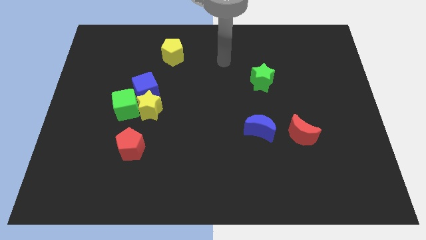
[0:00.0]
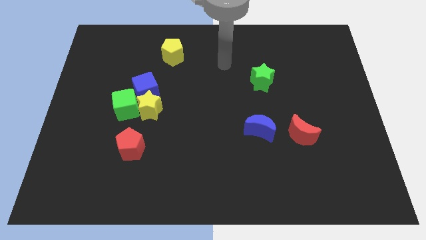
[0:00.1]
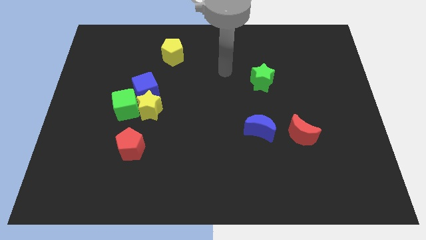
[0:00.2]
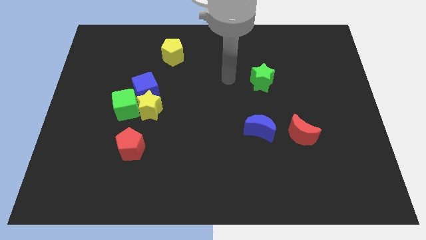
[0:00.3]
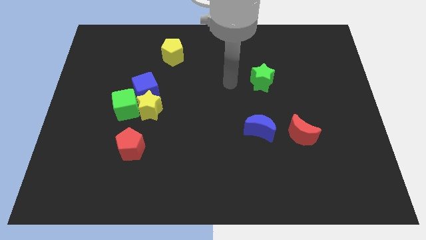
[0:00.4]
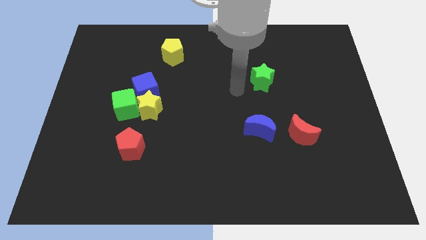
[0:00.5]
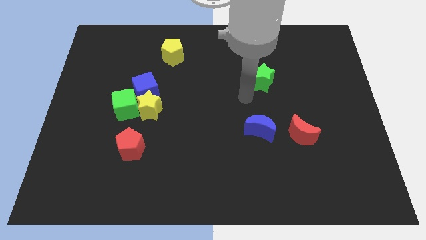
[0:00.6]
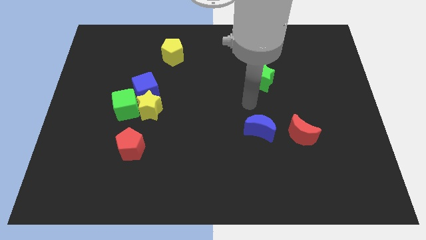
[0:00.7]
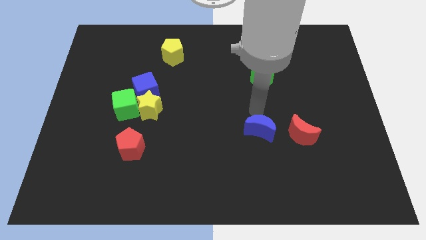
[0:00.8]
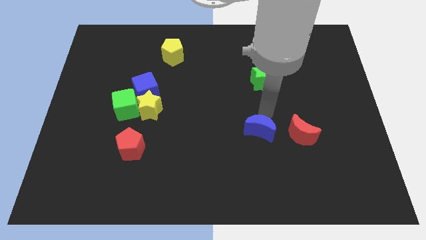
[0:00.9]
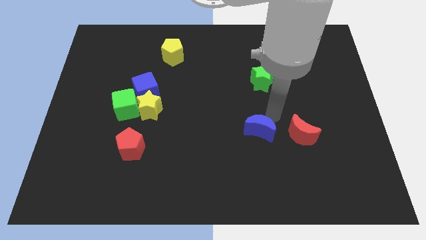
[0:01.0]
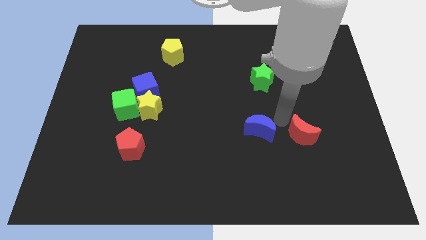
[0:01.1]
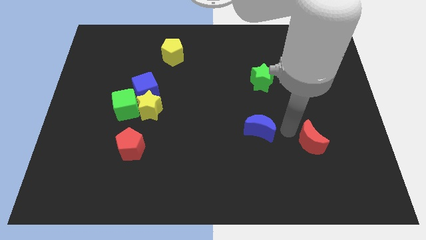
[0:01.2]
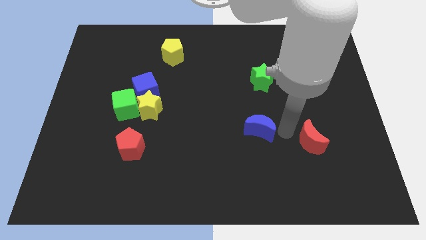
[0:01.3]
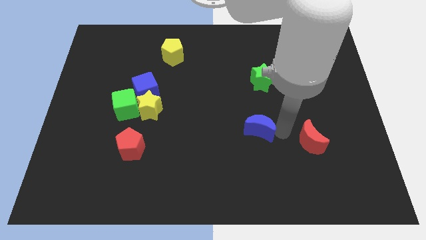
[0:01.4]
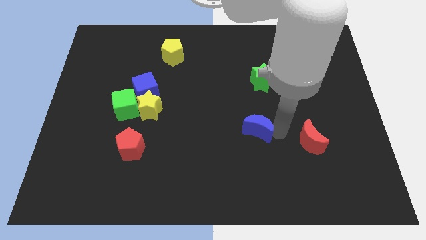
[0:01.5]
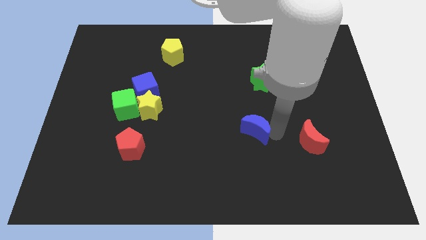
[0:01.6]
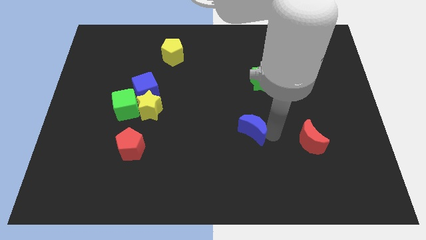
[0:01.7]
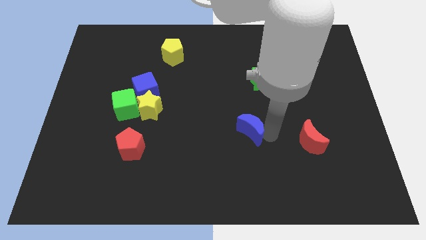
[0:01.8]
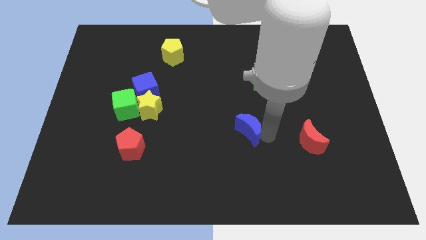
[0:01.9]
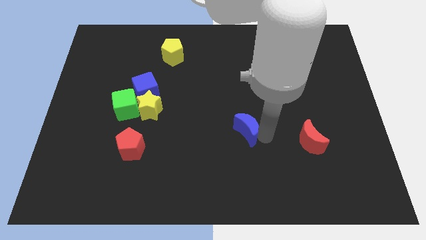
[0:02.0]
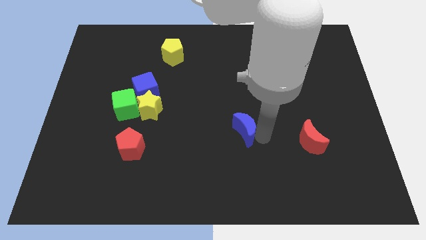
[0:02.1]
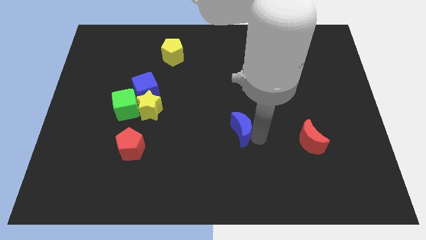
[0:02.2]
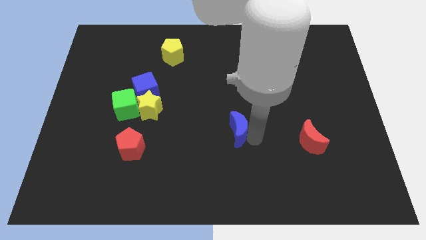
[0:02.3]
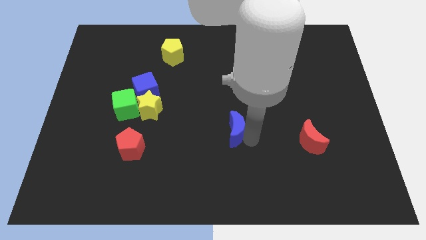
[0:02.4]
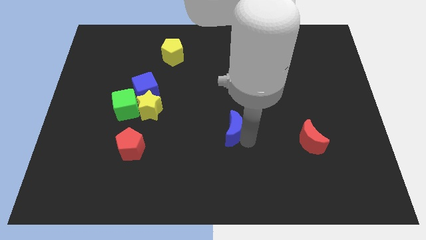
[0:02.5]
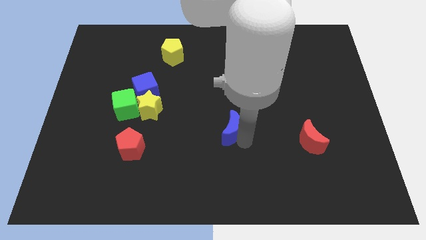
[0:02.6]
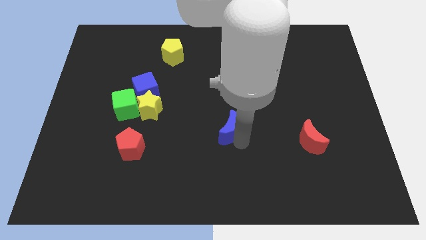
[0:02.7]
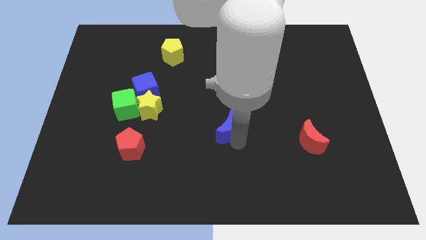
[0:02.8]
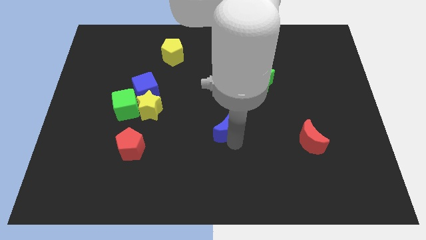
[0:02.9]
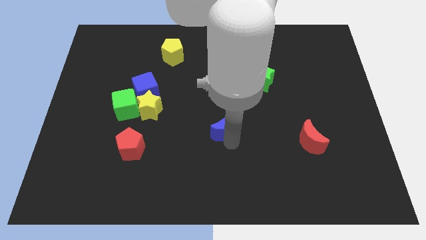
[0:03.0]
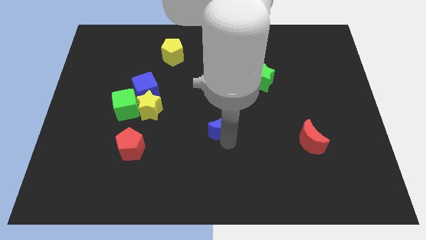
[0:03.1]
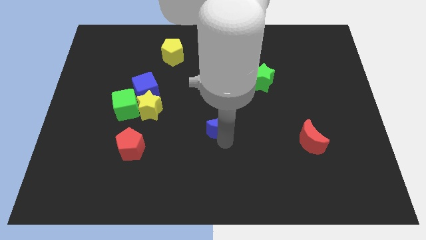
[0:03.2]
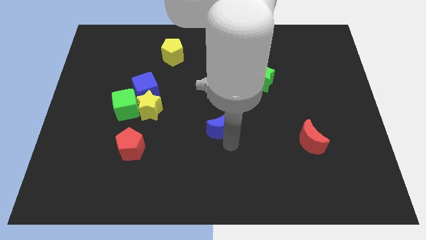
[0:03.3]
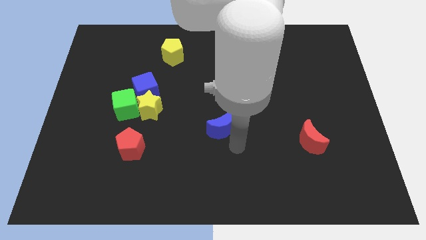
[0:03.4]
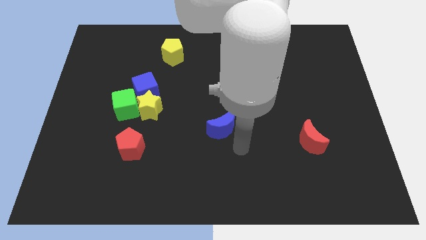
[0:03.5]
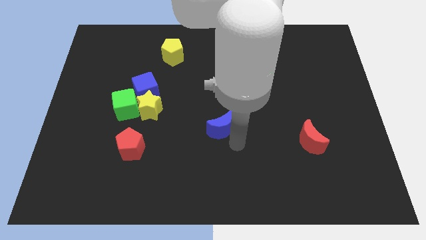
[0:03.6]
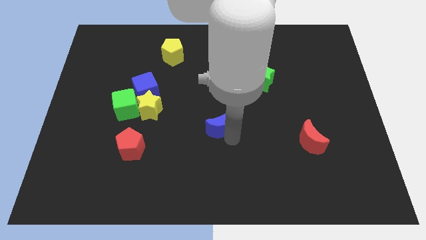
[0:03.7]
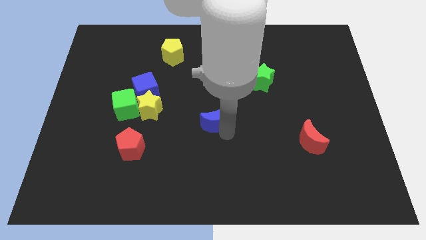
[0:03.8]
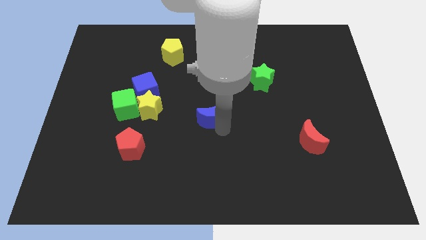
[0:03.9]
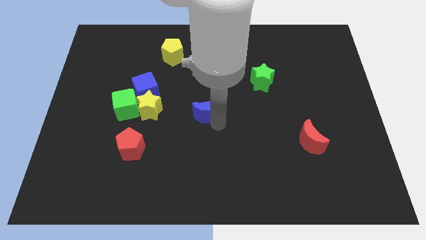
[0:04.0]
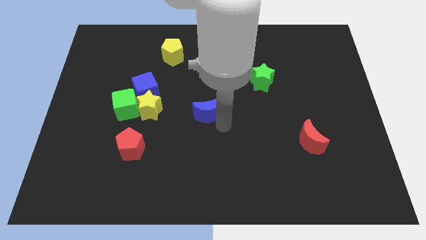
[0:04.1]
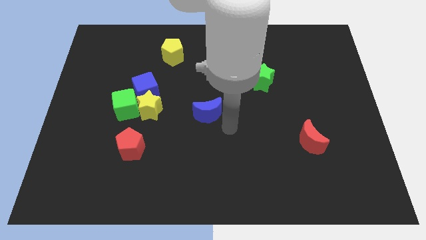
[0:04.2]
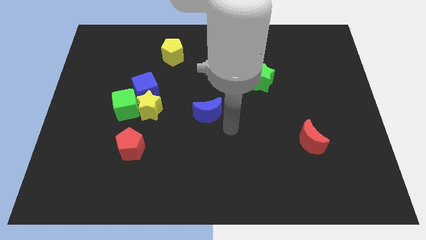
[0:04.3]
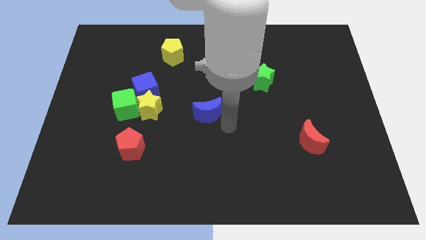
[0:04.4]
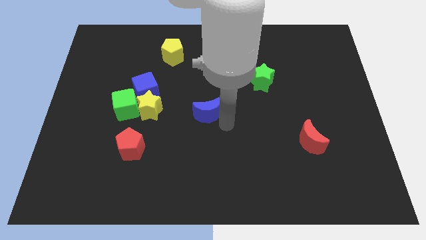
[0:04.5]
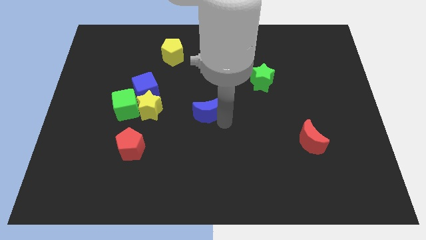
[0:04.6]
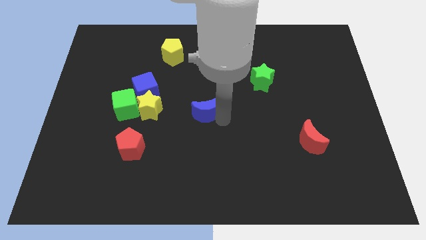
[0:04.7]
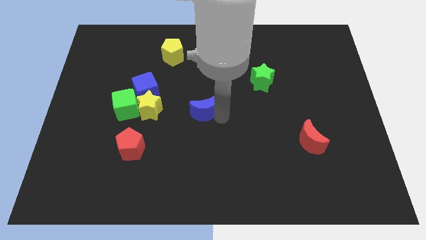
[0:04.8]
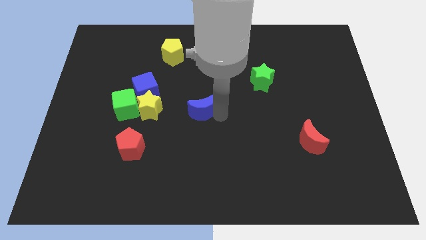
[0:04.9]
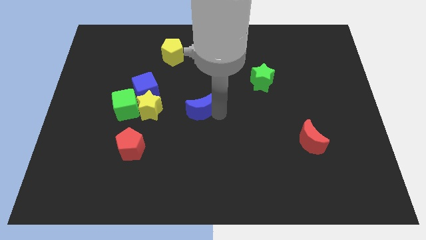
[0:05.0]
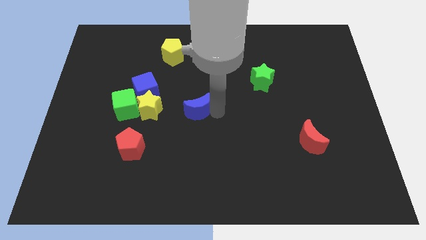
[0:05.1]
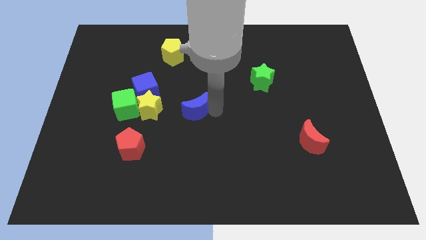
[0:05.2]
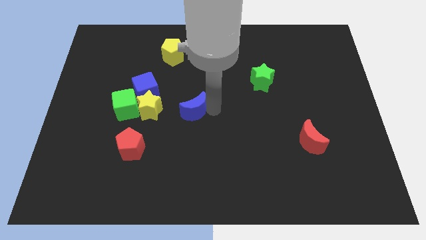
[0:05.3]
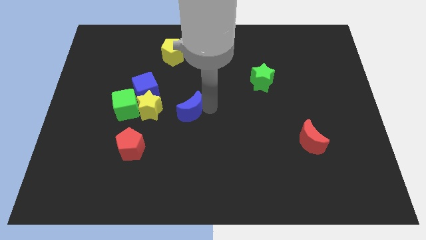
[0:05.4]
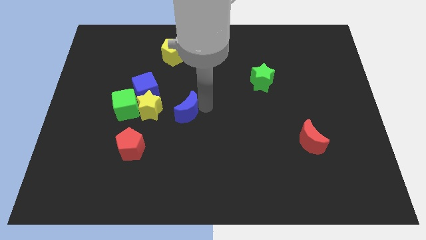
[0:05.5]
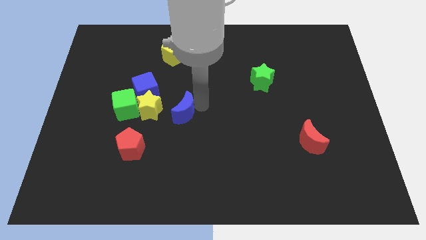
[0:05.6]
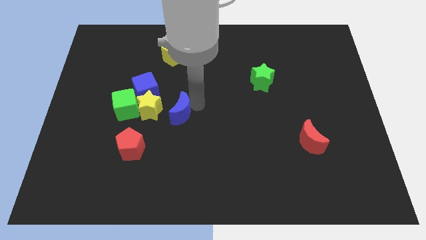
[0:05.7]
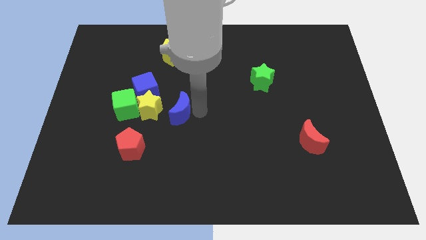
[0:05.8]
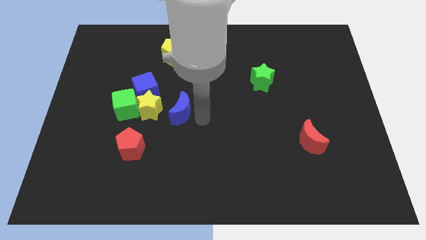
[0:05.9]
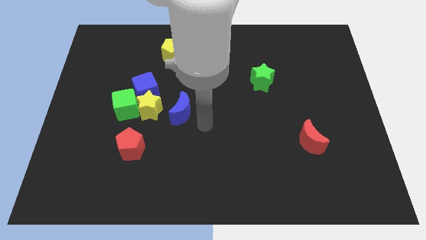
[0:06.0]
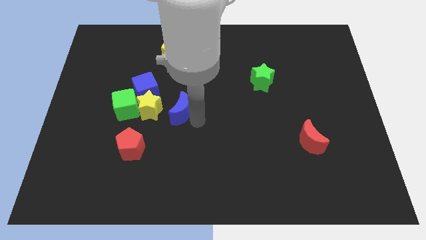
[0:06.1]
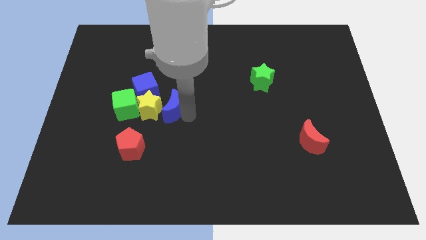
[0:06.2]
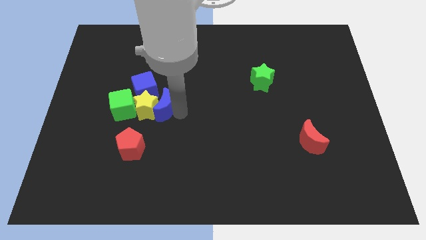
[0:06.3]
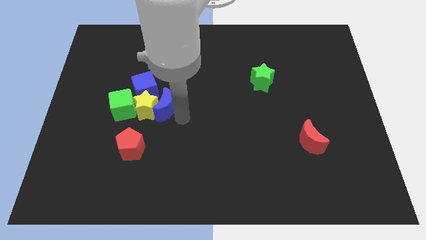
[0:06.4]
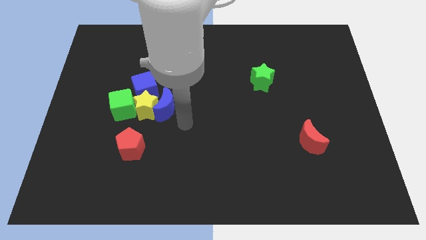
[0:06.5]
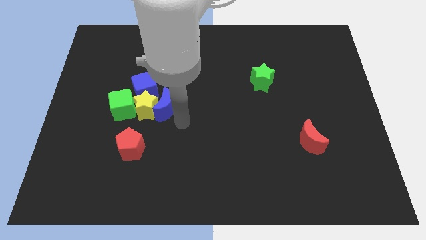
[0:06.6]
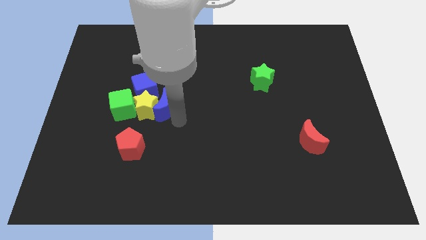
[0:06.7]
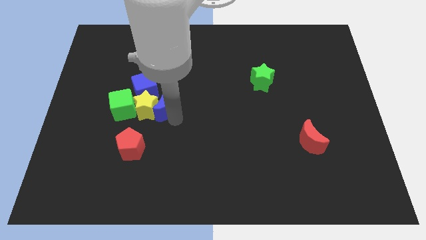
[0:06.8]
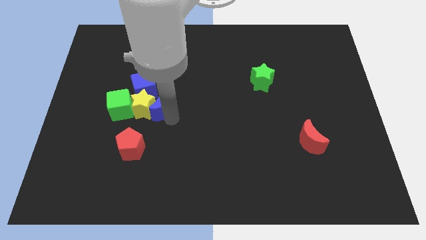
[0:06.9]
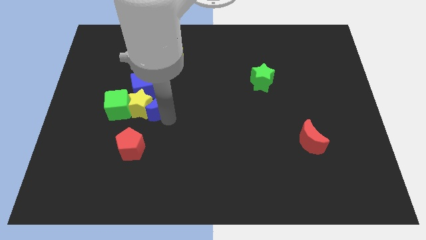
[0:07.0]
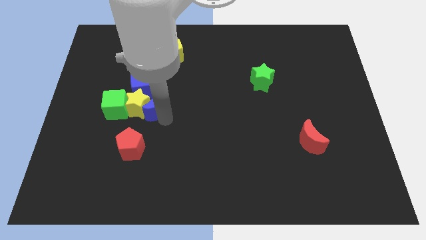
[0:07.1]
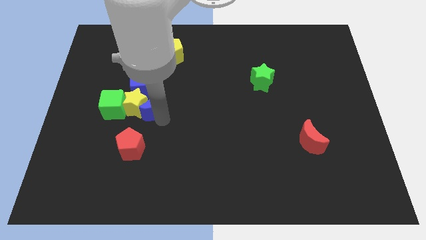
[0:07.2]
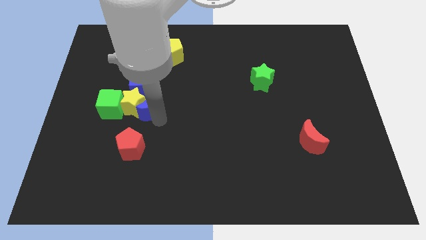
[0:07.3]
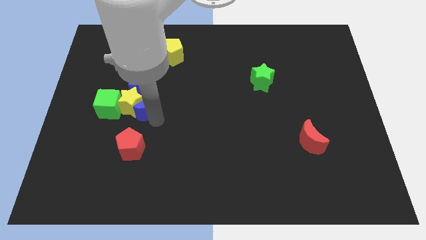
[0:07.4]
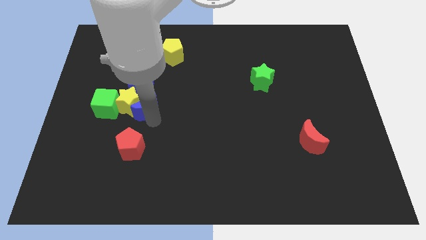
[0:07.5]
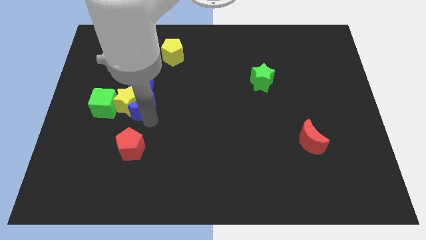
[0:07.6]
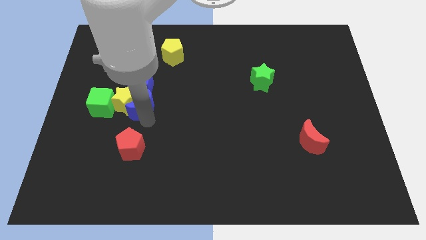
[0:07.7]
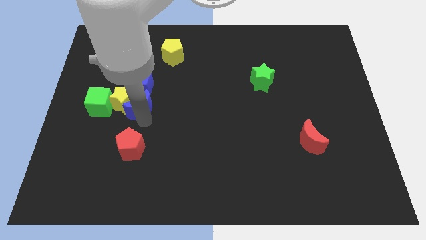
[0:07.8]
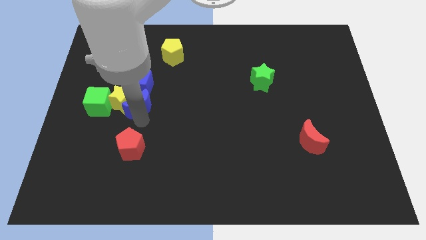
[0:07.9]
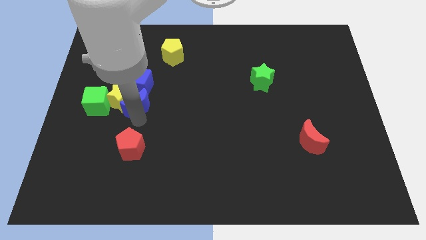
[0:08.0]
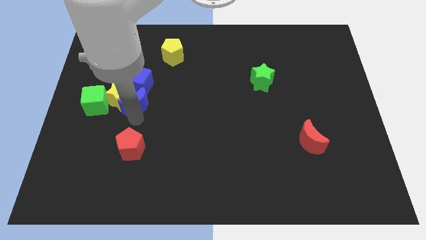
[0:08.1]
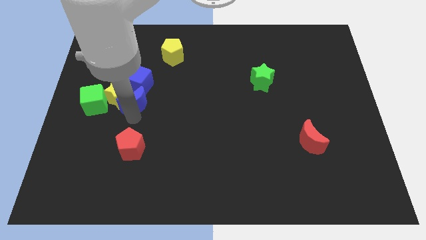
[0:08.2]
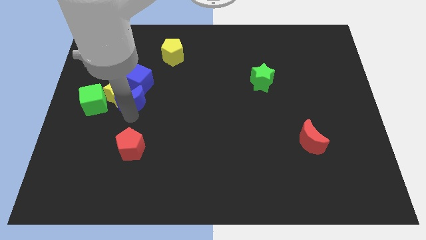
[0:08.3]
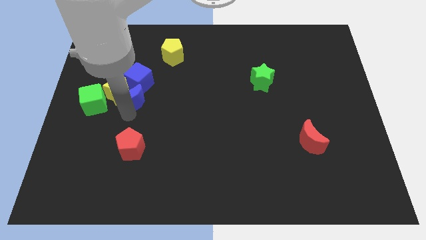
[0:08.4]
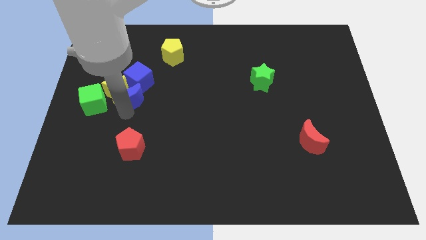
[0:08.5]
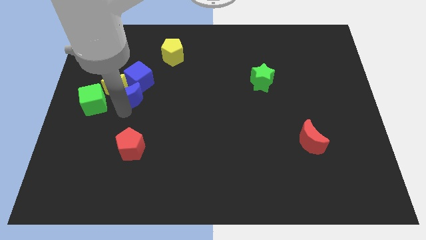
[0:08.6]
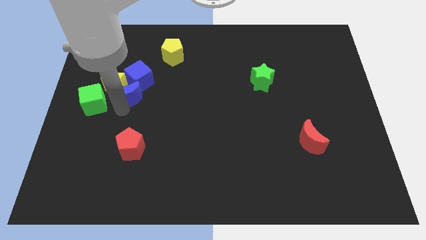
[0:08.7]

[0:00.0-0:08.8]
push the blue moon towards the blue cube
